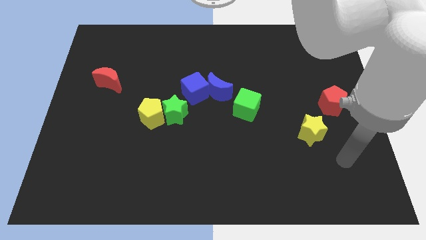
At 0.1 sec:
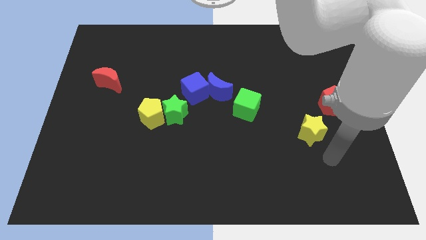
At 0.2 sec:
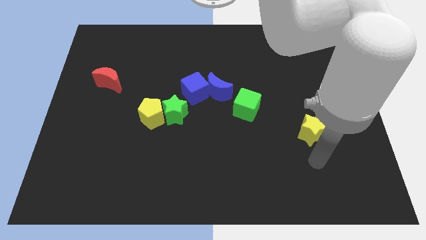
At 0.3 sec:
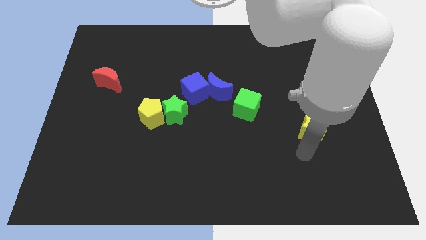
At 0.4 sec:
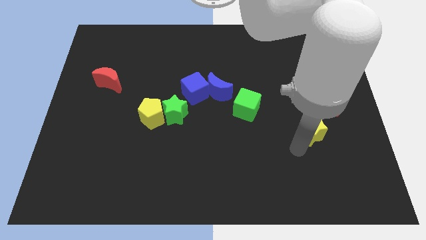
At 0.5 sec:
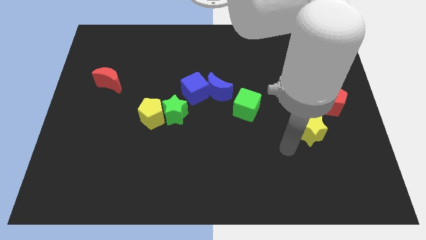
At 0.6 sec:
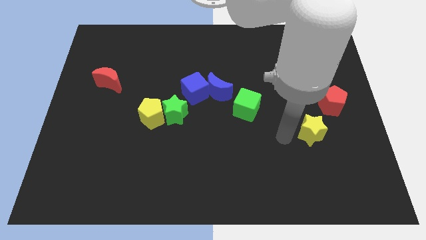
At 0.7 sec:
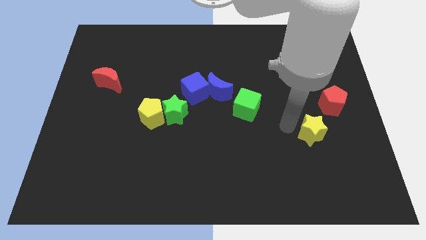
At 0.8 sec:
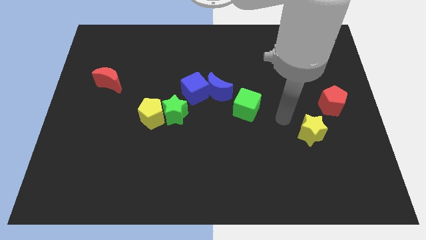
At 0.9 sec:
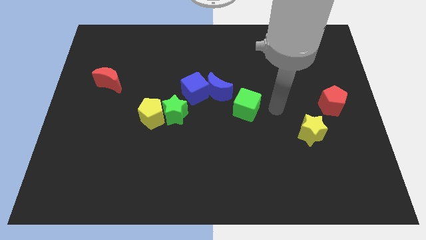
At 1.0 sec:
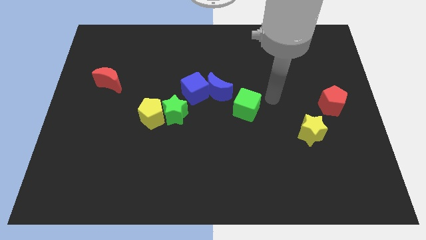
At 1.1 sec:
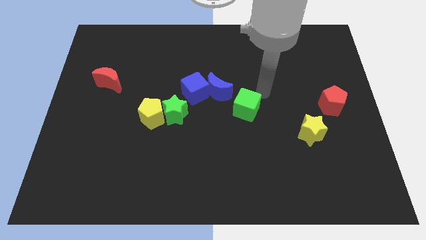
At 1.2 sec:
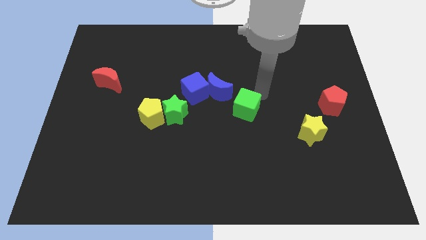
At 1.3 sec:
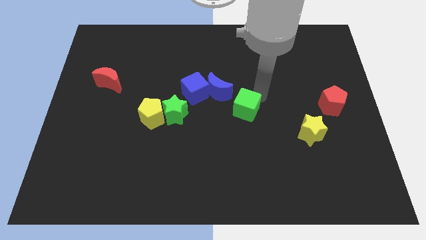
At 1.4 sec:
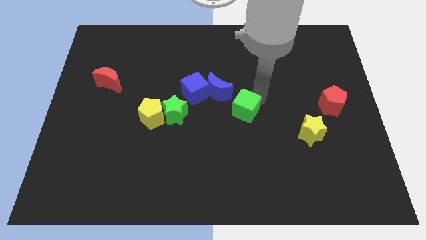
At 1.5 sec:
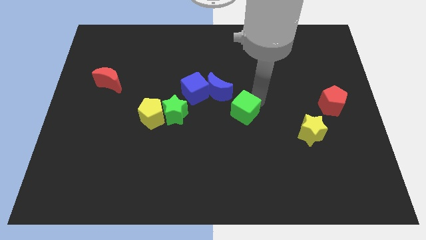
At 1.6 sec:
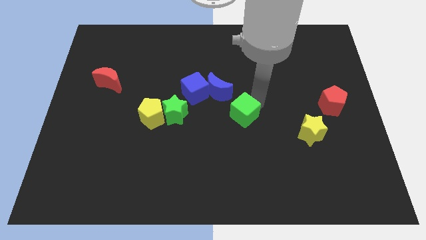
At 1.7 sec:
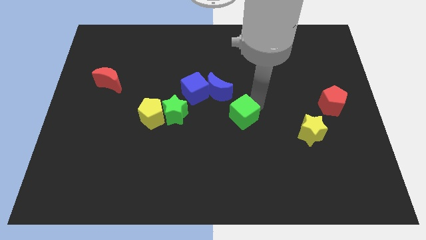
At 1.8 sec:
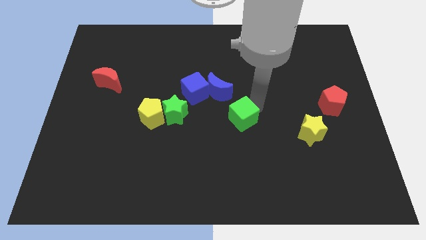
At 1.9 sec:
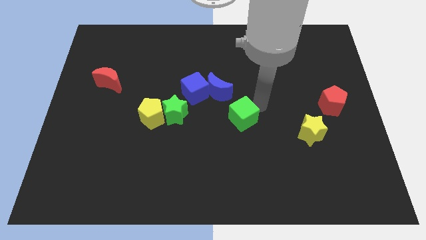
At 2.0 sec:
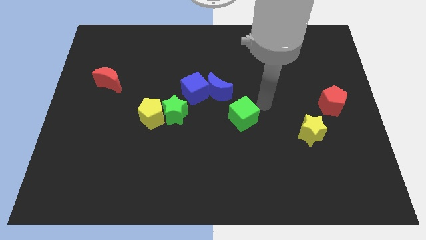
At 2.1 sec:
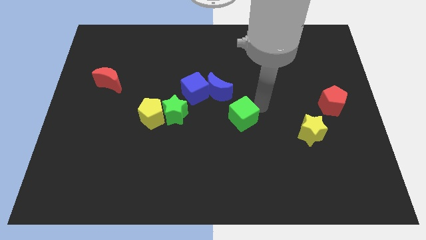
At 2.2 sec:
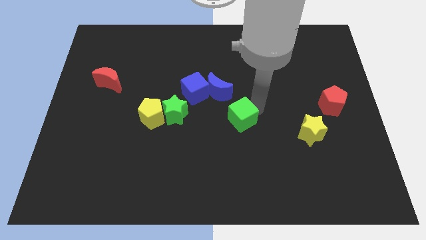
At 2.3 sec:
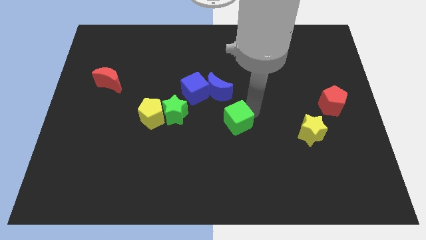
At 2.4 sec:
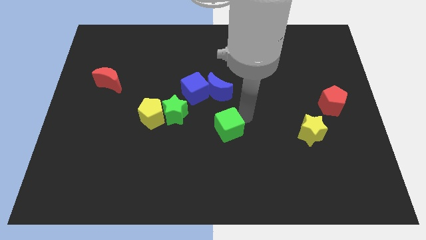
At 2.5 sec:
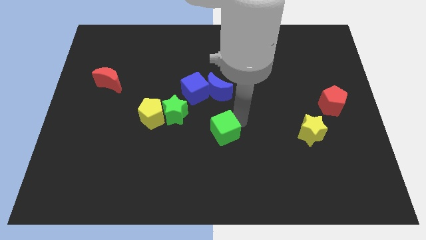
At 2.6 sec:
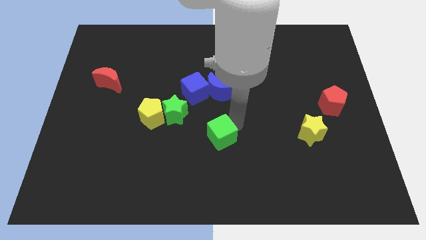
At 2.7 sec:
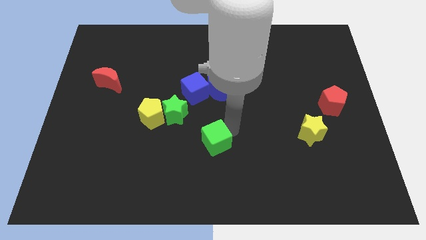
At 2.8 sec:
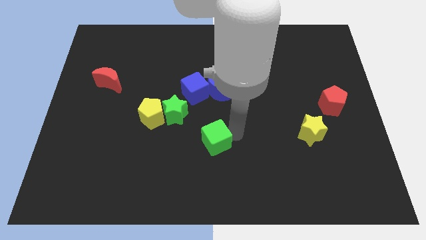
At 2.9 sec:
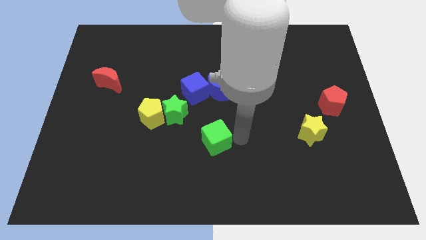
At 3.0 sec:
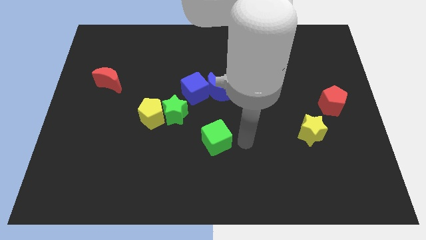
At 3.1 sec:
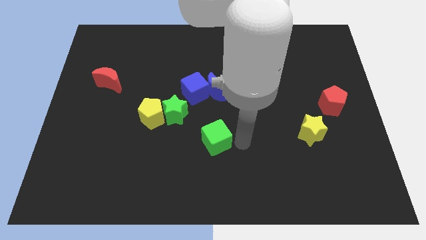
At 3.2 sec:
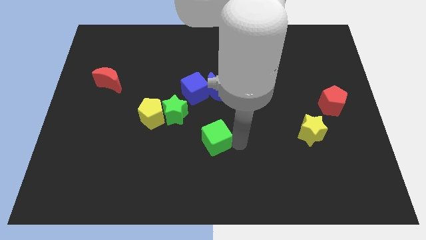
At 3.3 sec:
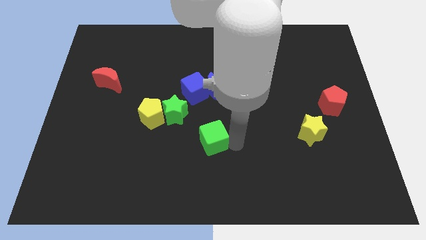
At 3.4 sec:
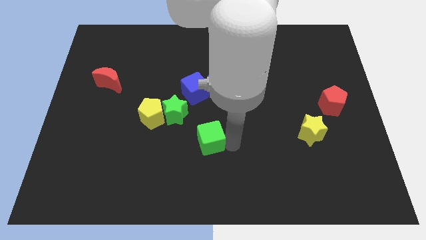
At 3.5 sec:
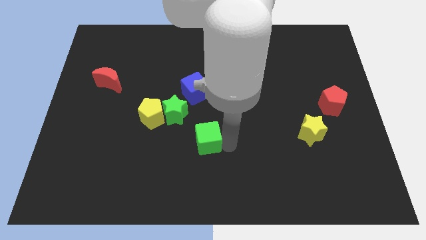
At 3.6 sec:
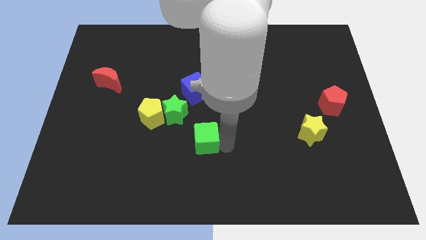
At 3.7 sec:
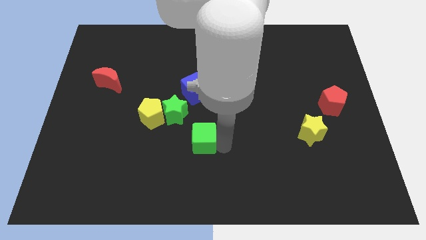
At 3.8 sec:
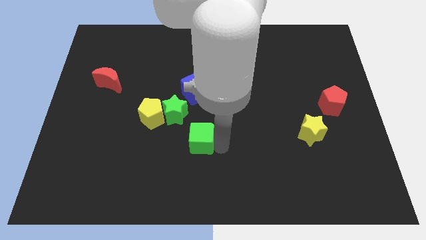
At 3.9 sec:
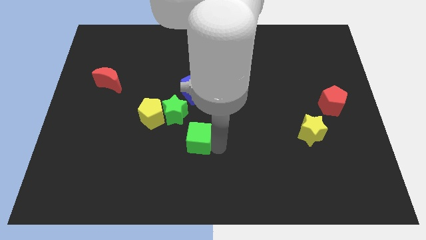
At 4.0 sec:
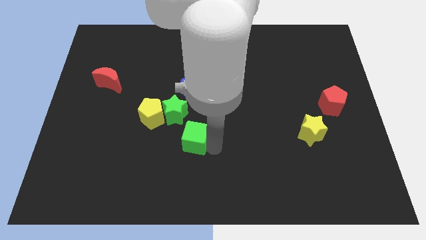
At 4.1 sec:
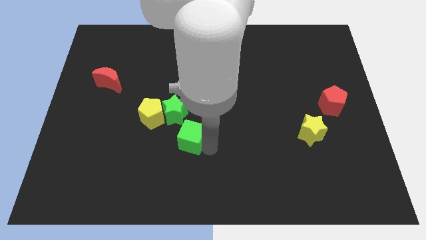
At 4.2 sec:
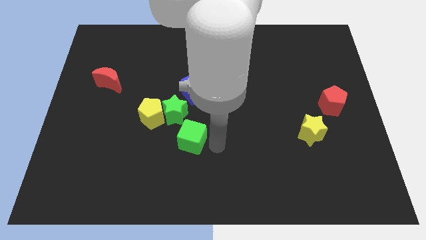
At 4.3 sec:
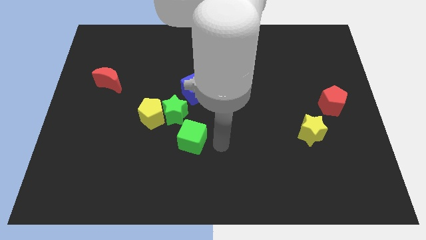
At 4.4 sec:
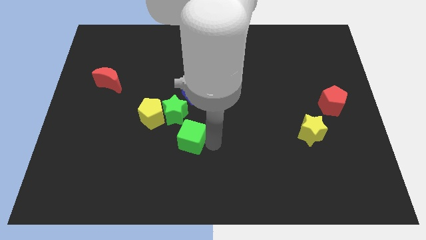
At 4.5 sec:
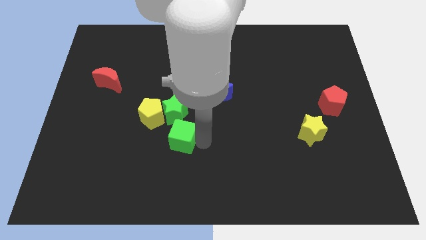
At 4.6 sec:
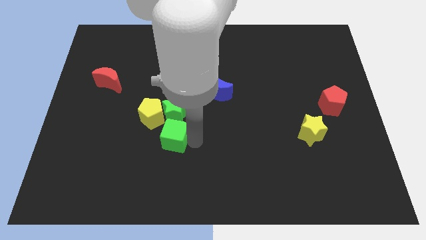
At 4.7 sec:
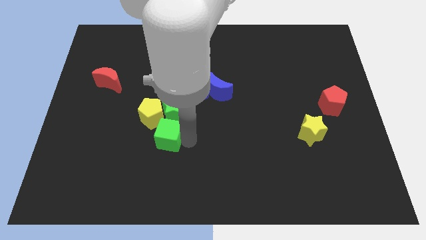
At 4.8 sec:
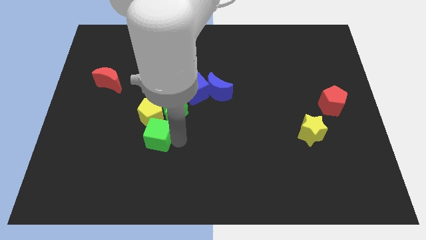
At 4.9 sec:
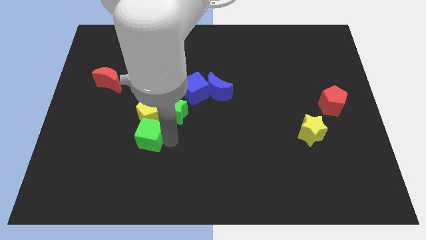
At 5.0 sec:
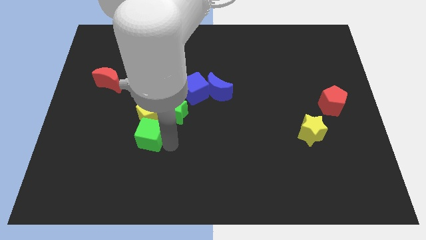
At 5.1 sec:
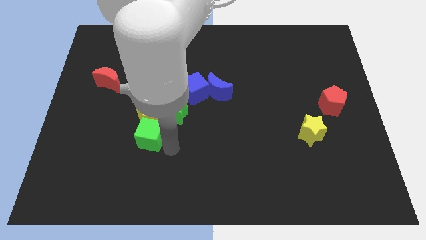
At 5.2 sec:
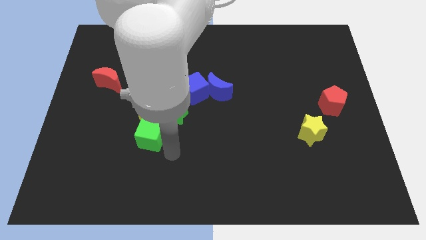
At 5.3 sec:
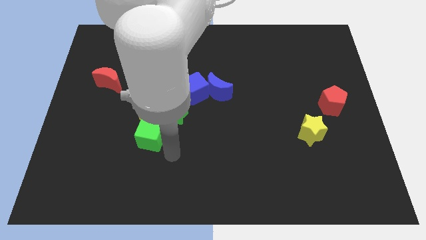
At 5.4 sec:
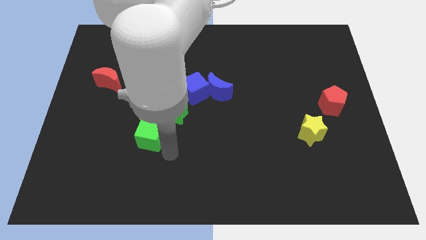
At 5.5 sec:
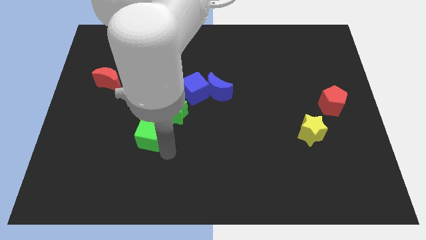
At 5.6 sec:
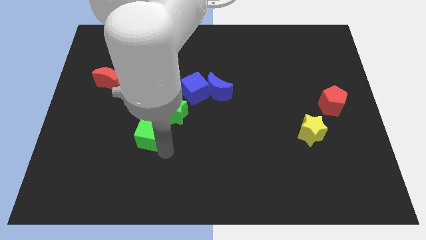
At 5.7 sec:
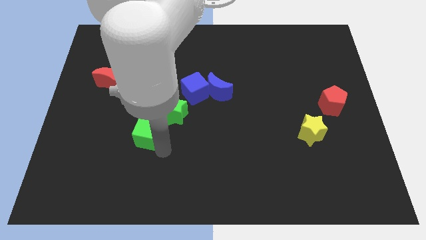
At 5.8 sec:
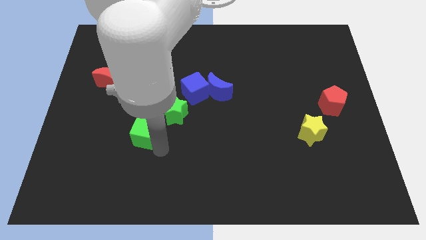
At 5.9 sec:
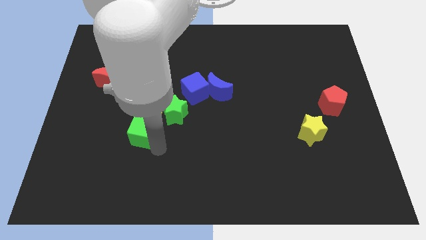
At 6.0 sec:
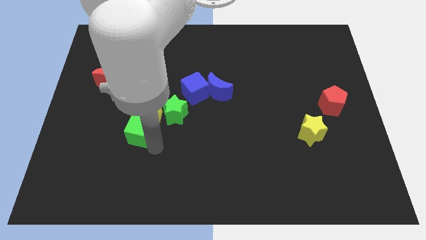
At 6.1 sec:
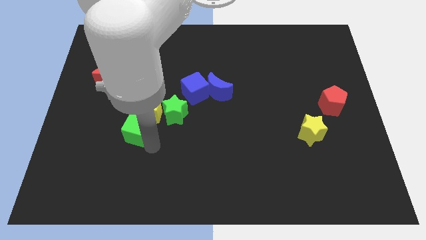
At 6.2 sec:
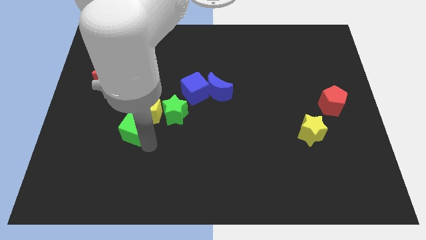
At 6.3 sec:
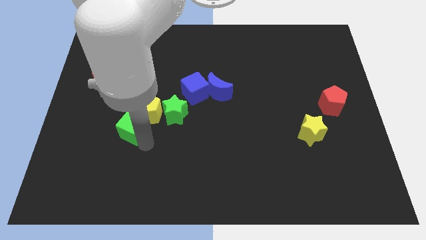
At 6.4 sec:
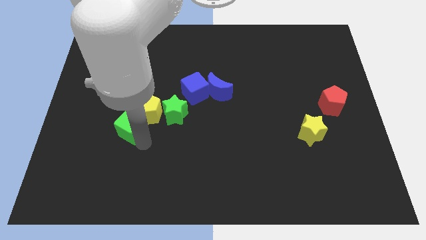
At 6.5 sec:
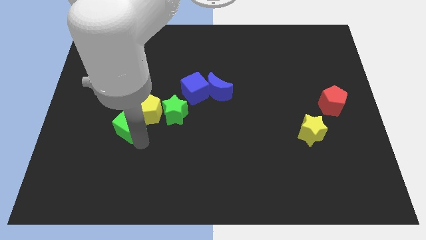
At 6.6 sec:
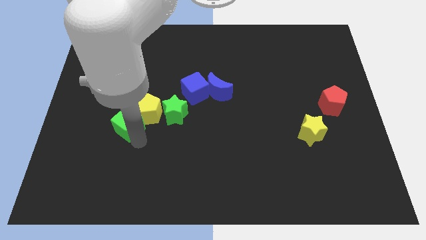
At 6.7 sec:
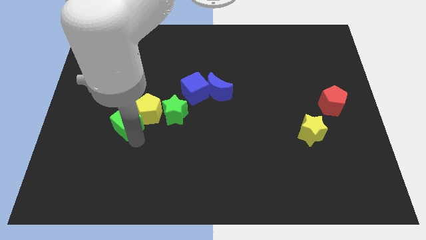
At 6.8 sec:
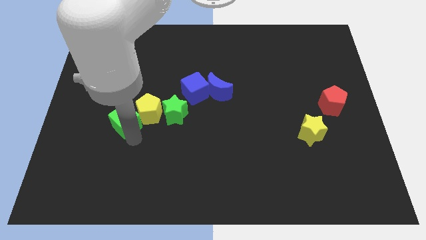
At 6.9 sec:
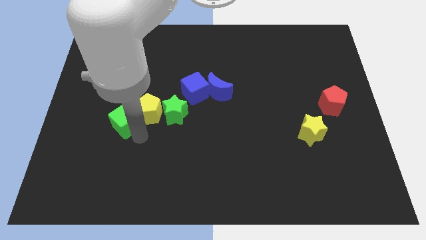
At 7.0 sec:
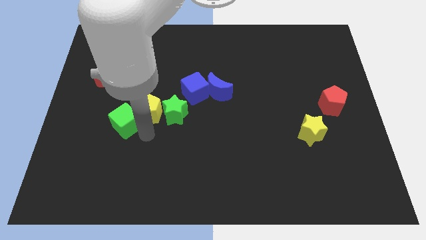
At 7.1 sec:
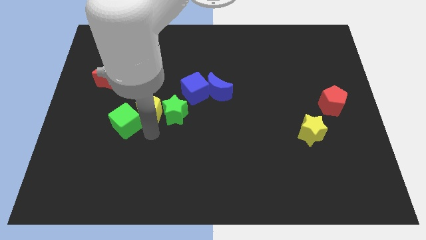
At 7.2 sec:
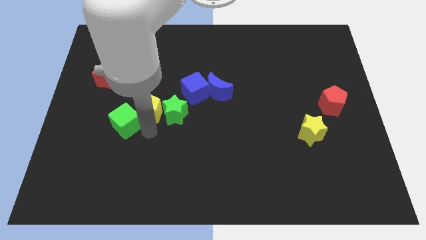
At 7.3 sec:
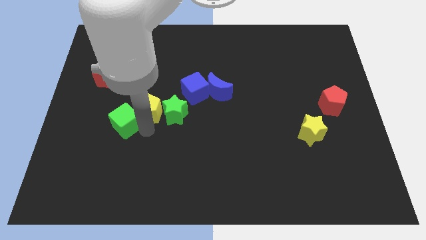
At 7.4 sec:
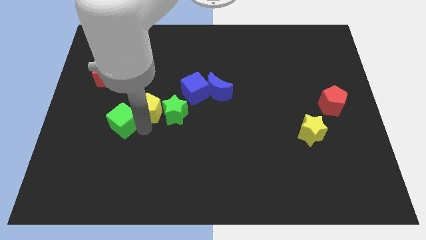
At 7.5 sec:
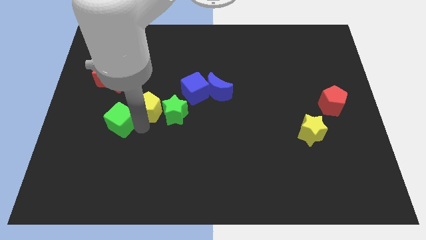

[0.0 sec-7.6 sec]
slide the green cube to the bottom side of the red moon
